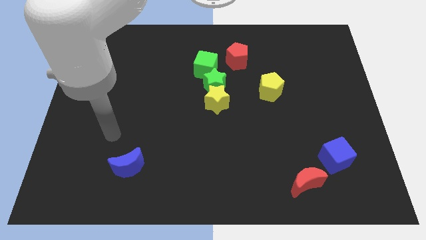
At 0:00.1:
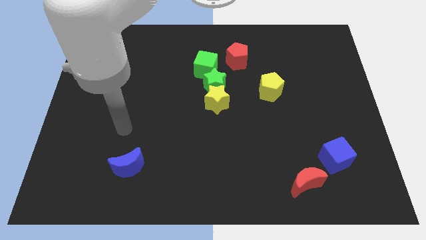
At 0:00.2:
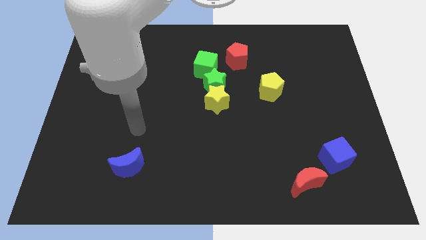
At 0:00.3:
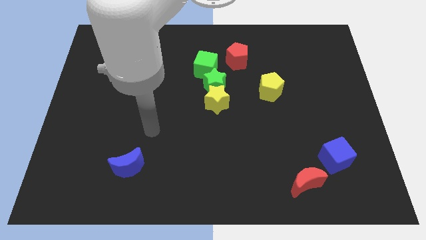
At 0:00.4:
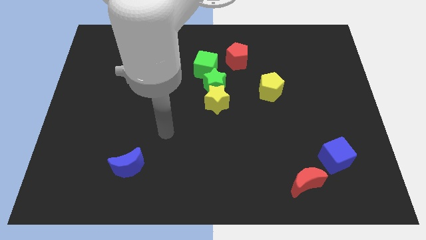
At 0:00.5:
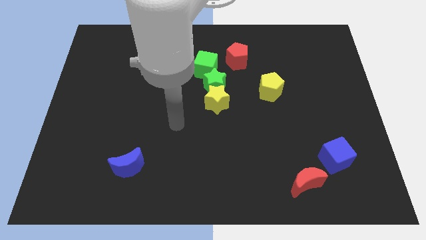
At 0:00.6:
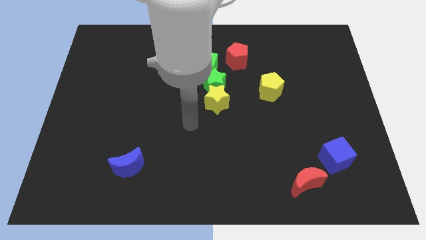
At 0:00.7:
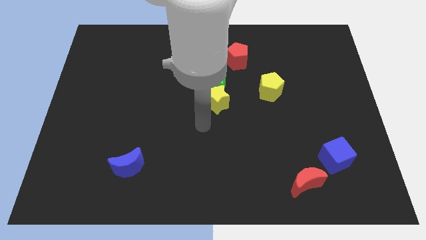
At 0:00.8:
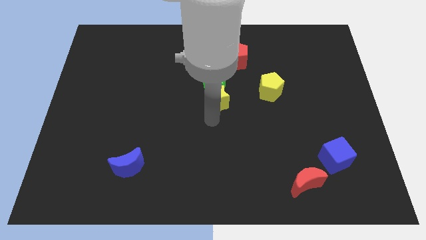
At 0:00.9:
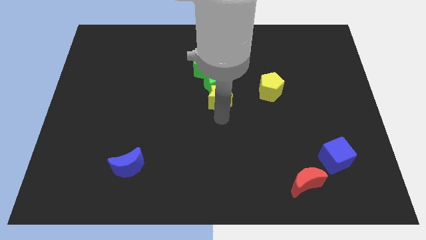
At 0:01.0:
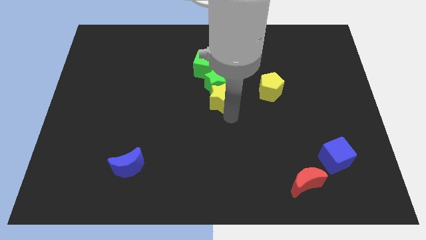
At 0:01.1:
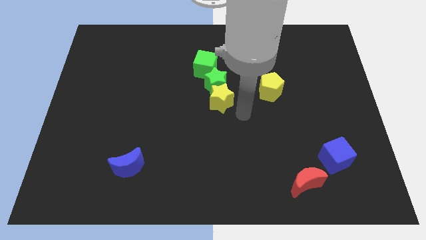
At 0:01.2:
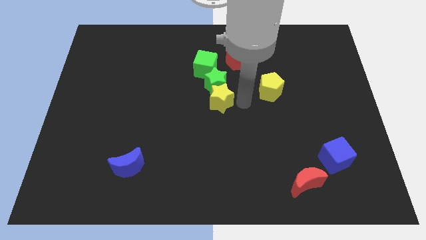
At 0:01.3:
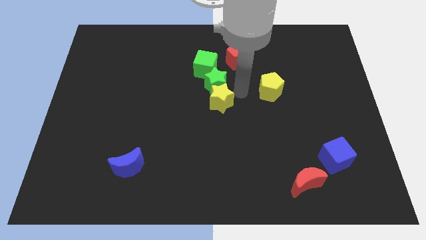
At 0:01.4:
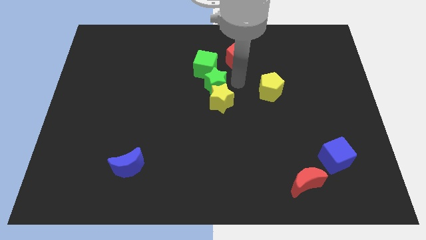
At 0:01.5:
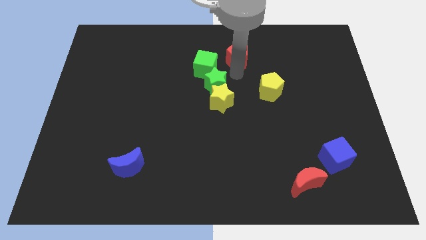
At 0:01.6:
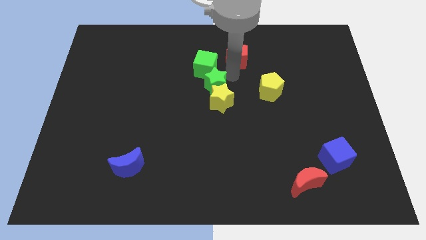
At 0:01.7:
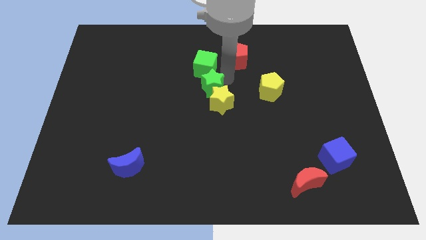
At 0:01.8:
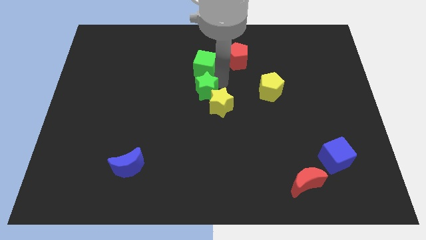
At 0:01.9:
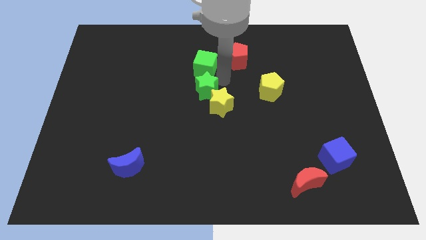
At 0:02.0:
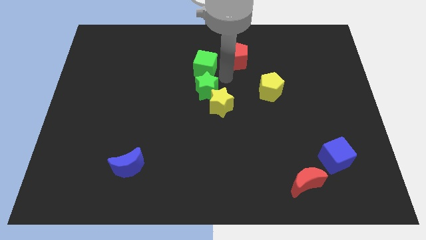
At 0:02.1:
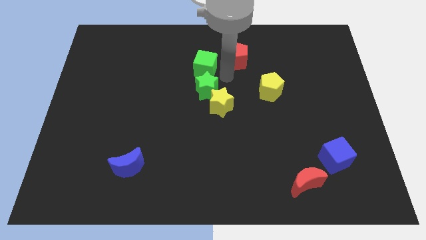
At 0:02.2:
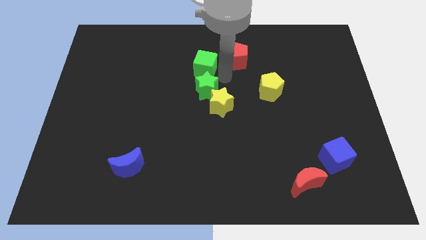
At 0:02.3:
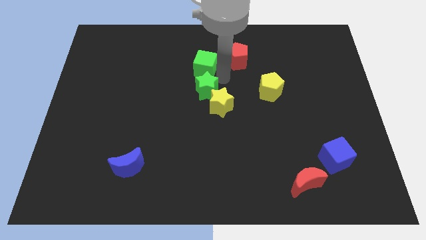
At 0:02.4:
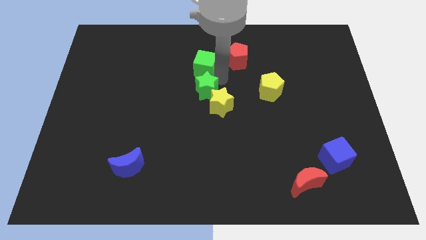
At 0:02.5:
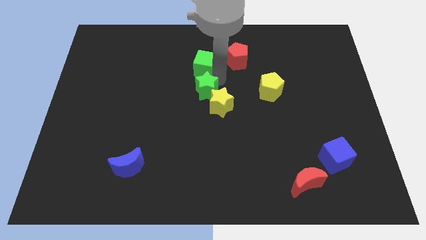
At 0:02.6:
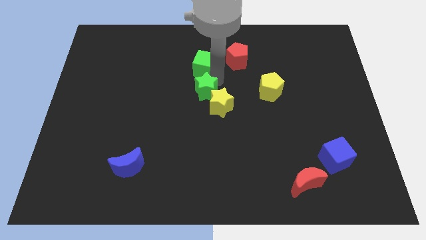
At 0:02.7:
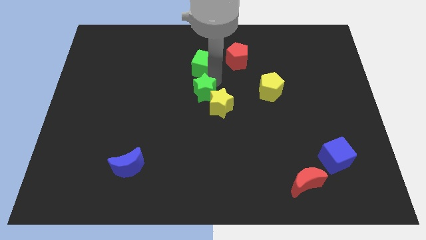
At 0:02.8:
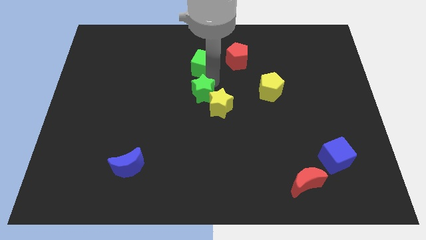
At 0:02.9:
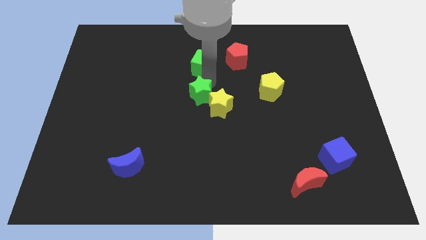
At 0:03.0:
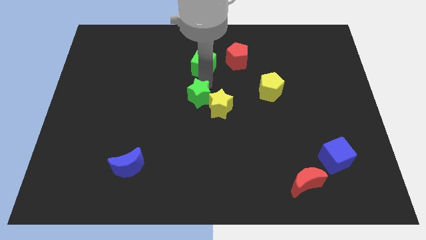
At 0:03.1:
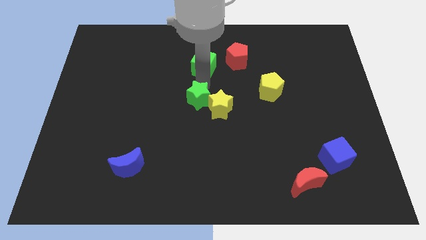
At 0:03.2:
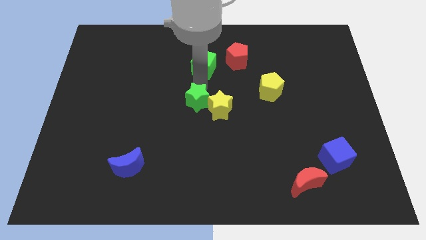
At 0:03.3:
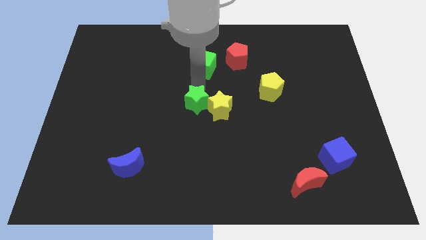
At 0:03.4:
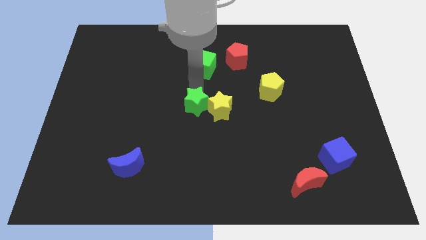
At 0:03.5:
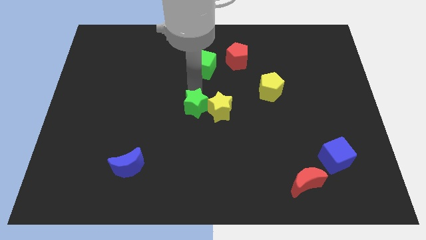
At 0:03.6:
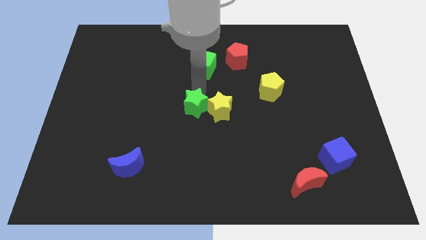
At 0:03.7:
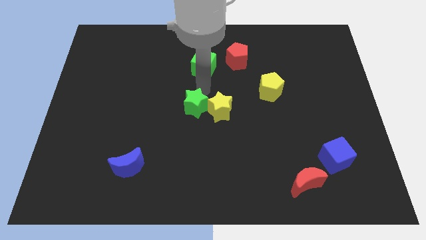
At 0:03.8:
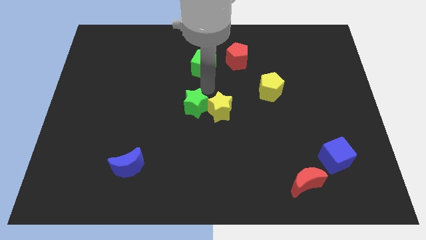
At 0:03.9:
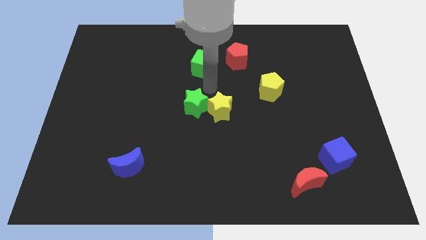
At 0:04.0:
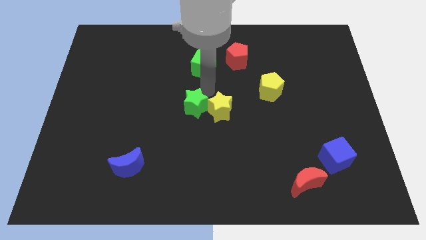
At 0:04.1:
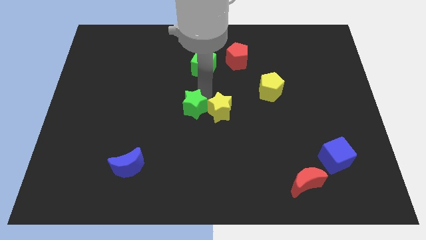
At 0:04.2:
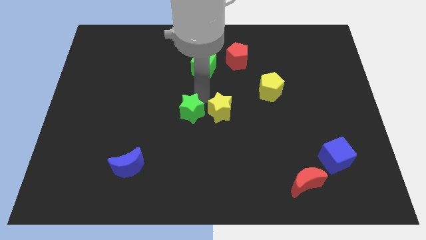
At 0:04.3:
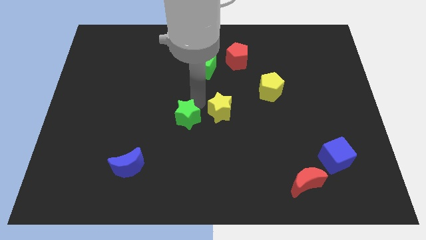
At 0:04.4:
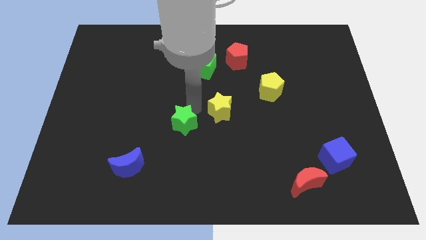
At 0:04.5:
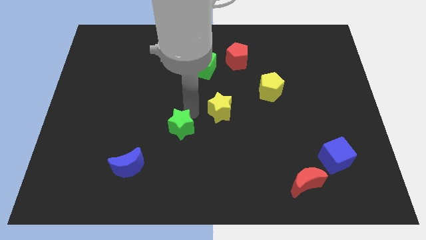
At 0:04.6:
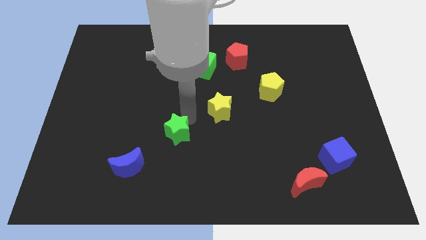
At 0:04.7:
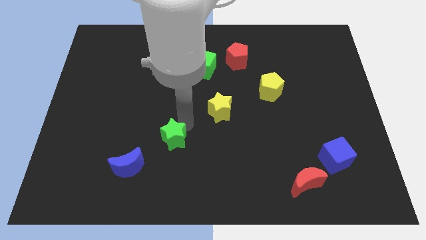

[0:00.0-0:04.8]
slide the green star to the top right side of the blue moon

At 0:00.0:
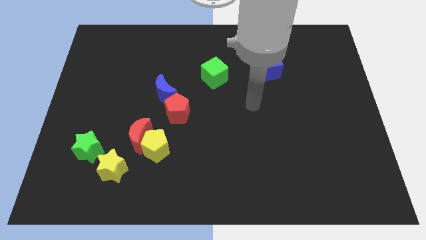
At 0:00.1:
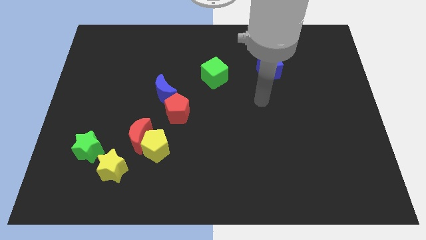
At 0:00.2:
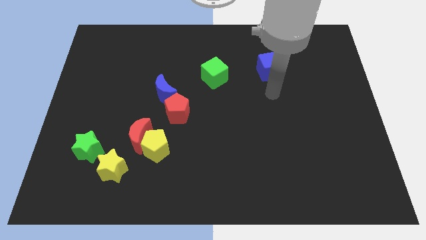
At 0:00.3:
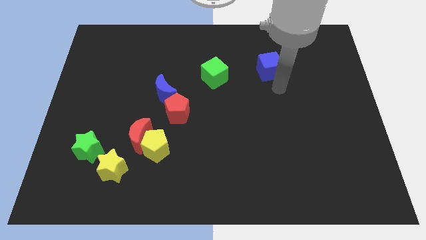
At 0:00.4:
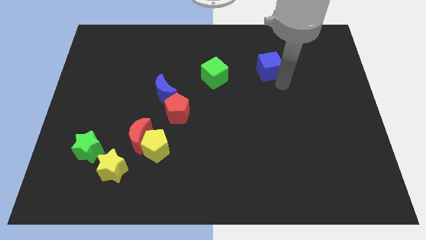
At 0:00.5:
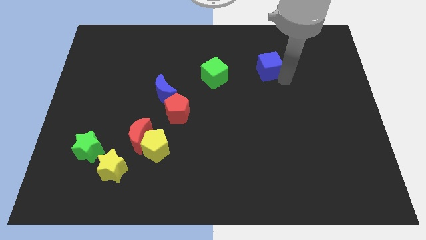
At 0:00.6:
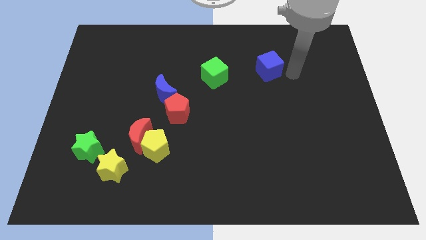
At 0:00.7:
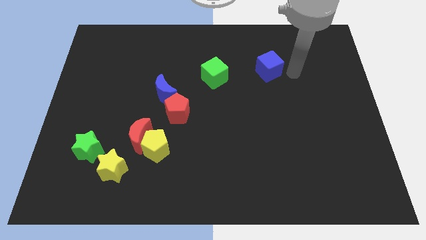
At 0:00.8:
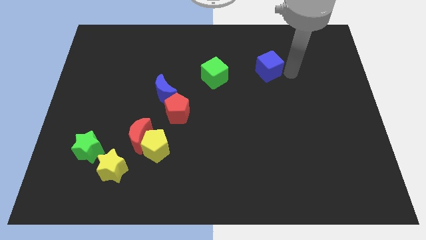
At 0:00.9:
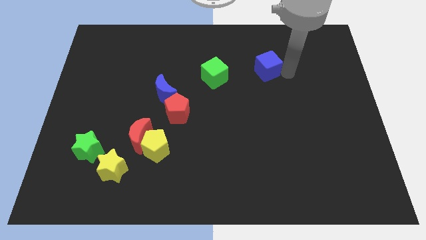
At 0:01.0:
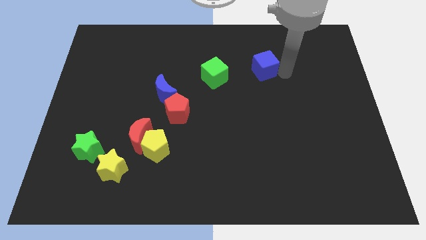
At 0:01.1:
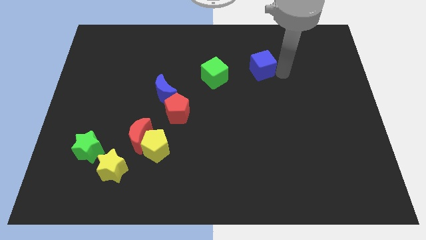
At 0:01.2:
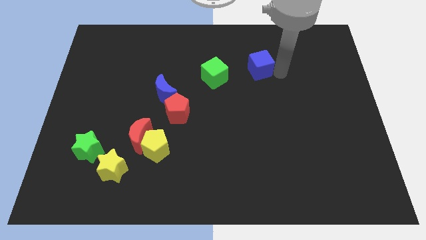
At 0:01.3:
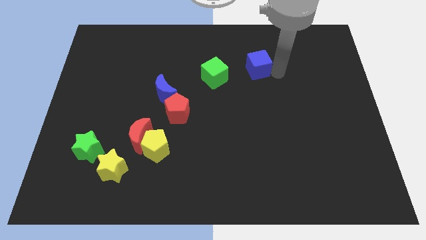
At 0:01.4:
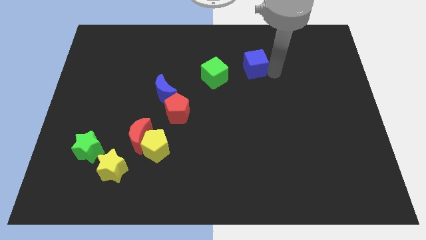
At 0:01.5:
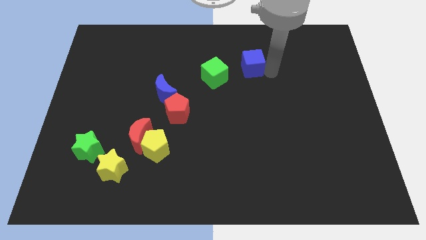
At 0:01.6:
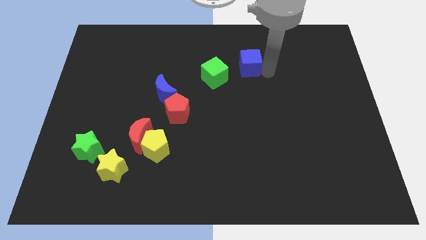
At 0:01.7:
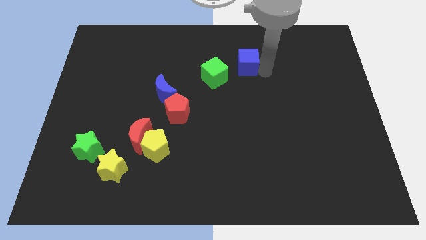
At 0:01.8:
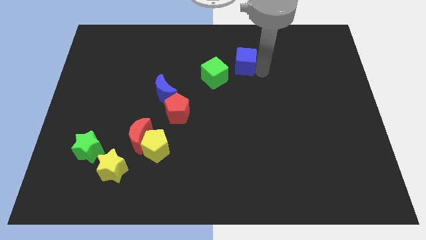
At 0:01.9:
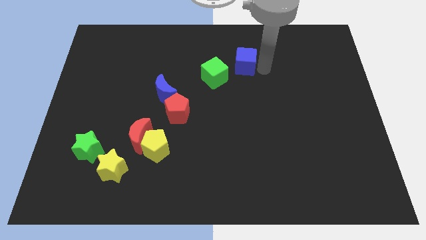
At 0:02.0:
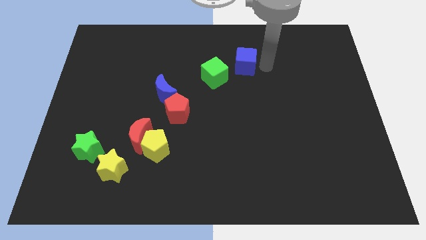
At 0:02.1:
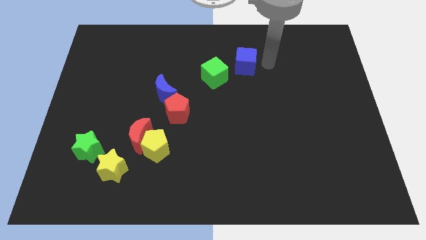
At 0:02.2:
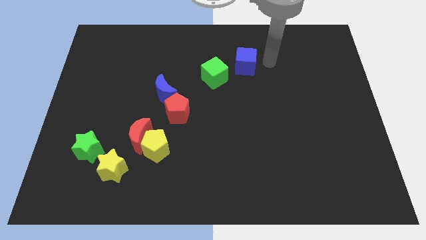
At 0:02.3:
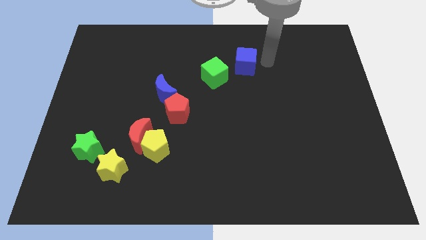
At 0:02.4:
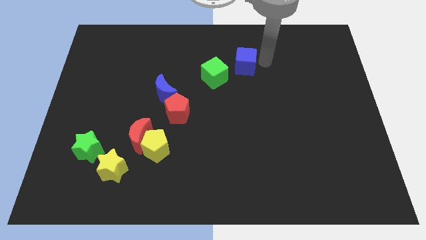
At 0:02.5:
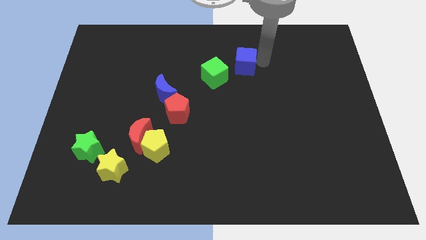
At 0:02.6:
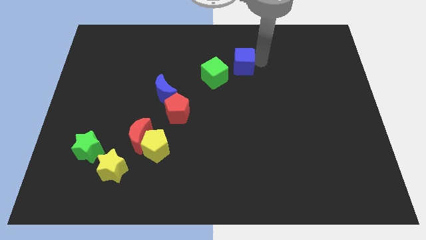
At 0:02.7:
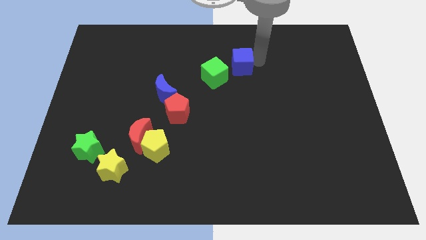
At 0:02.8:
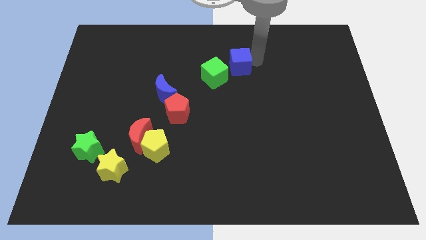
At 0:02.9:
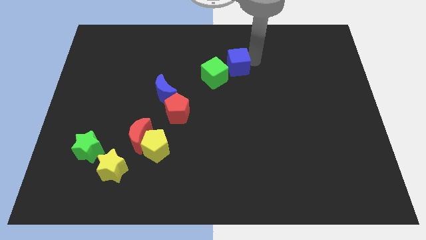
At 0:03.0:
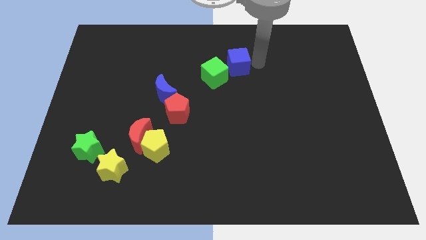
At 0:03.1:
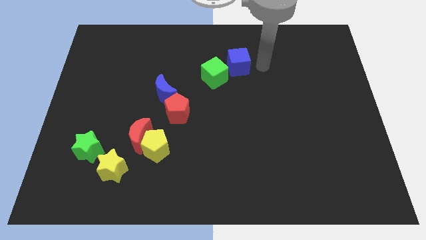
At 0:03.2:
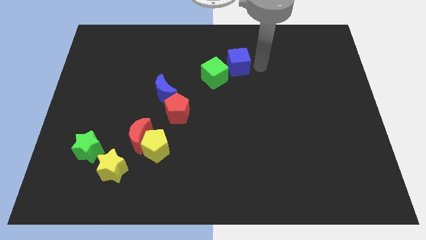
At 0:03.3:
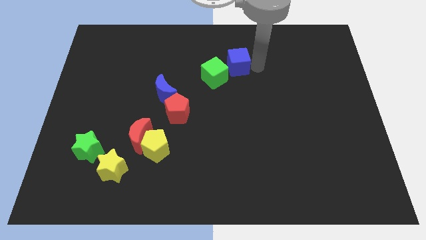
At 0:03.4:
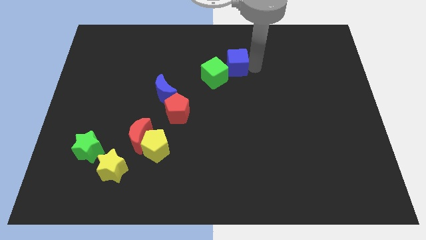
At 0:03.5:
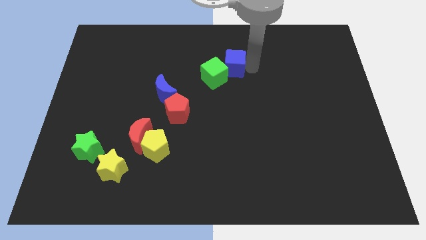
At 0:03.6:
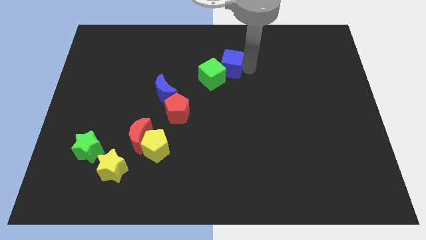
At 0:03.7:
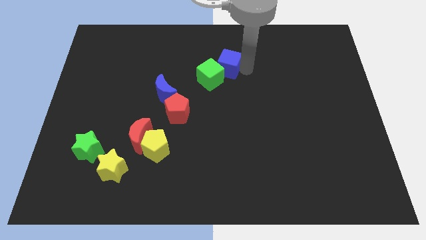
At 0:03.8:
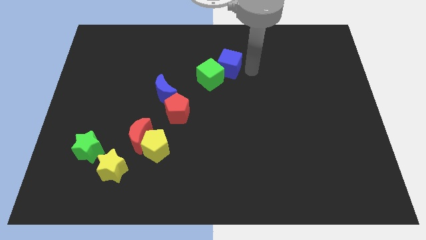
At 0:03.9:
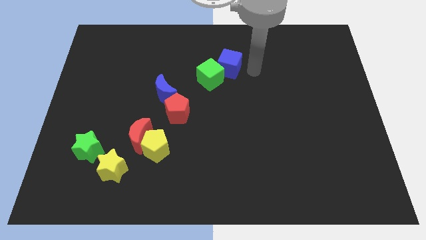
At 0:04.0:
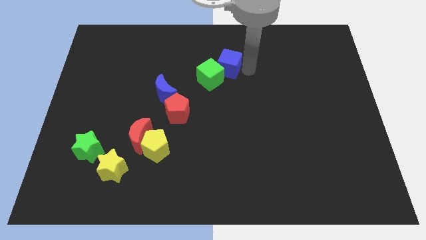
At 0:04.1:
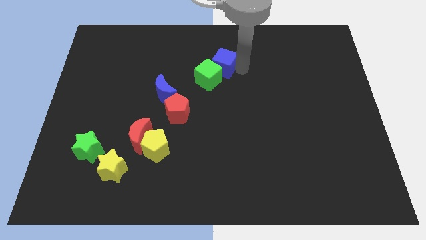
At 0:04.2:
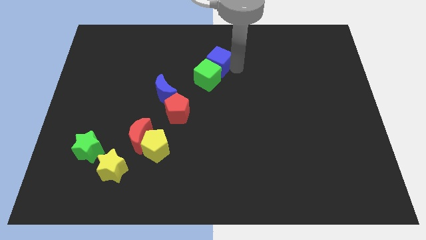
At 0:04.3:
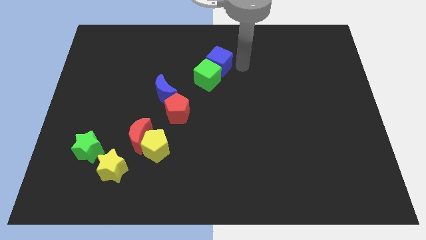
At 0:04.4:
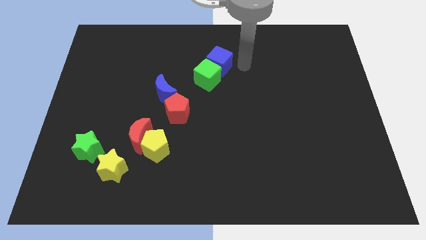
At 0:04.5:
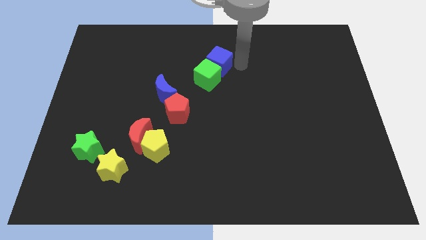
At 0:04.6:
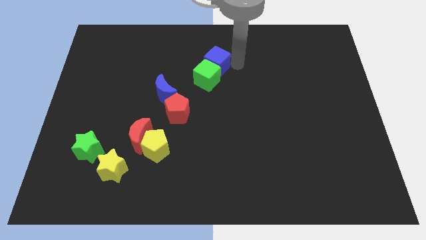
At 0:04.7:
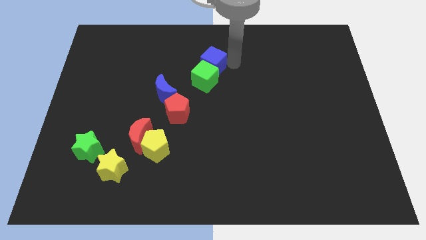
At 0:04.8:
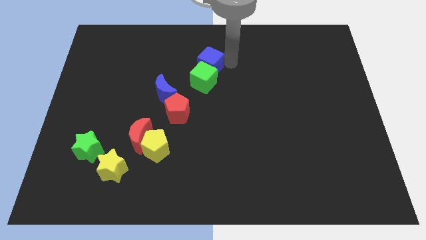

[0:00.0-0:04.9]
put the blue cube to the top left side of the green cube
